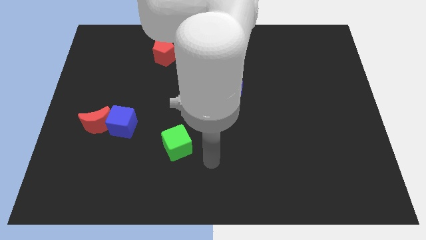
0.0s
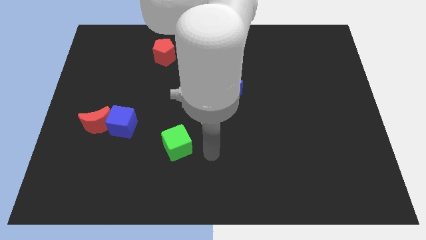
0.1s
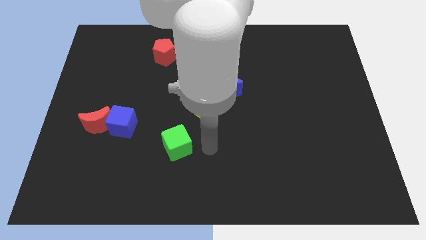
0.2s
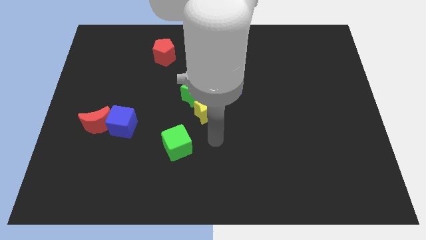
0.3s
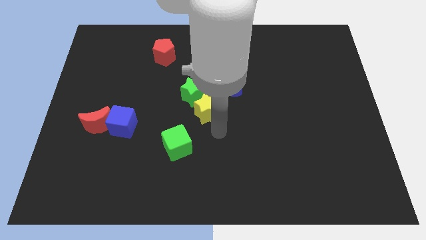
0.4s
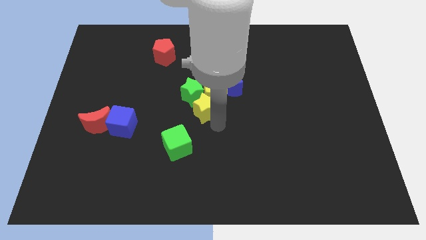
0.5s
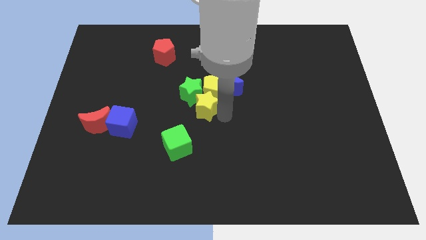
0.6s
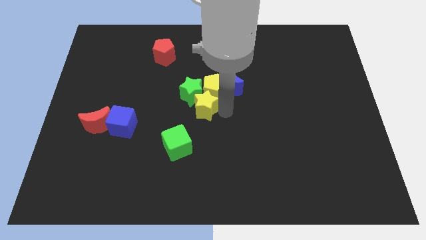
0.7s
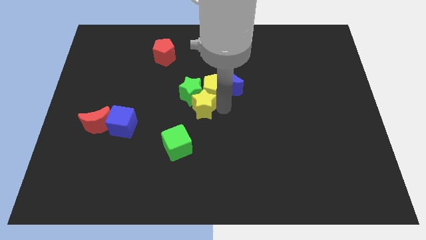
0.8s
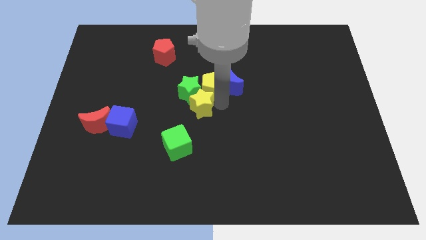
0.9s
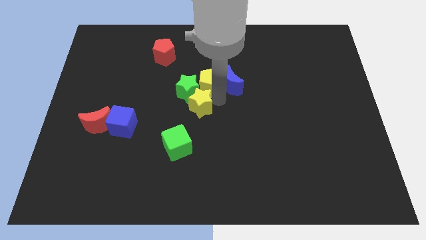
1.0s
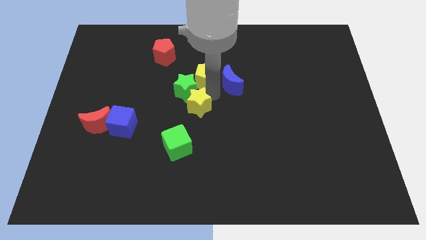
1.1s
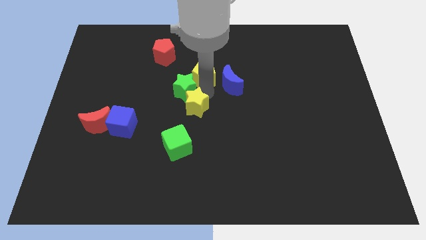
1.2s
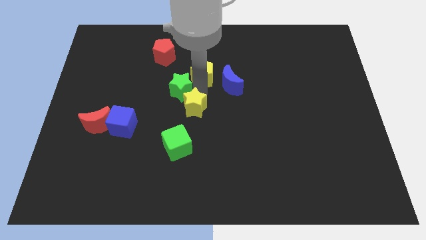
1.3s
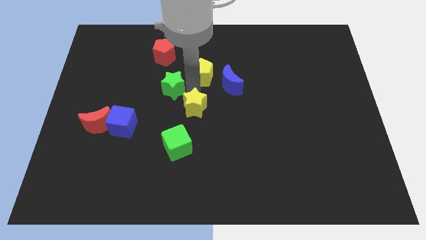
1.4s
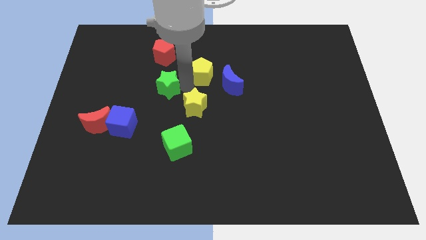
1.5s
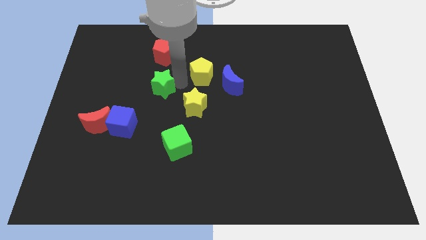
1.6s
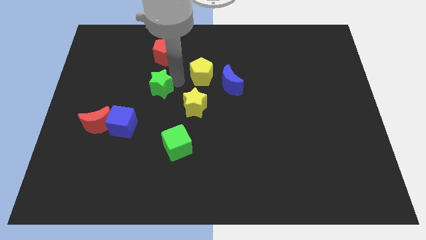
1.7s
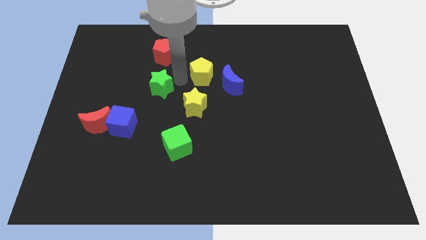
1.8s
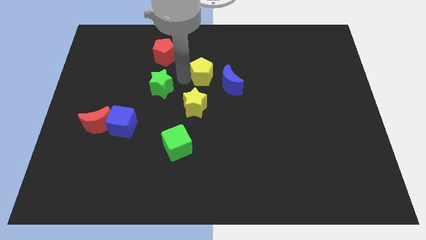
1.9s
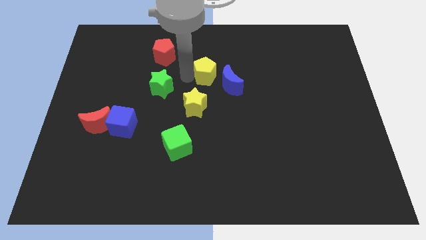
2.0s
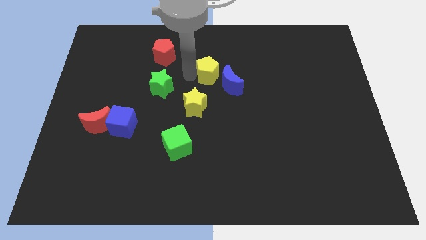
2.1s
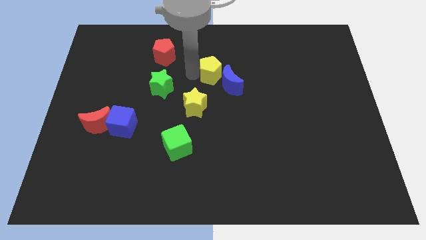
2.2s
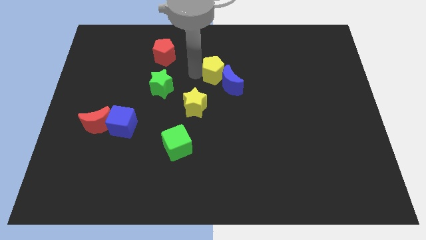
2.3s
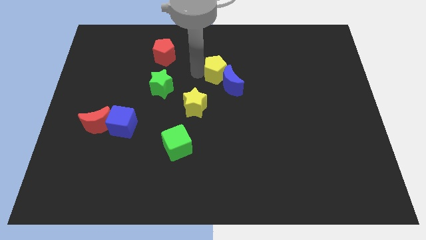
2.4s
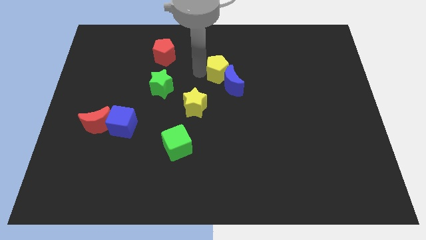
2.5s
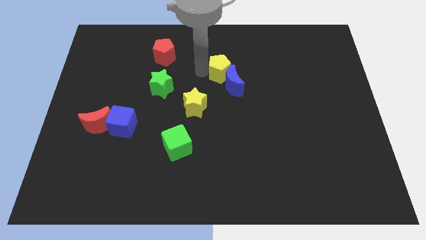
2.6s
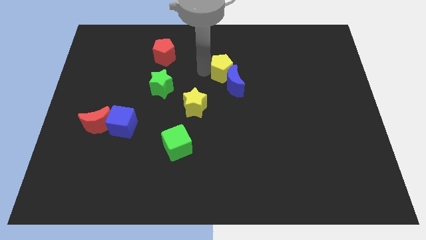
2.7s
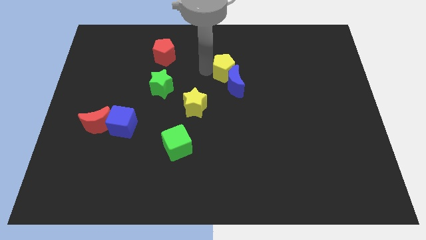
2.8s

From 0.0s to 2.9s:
separate the yellow pentagon from the group of blocks

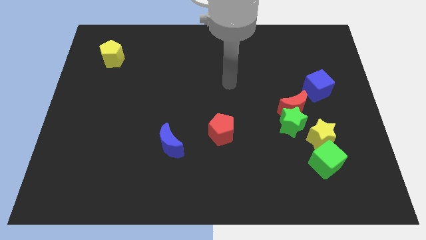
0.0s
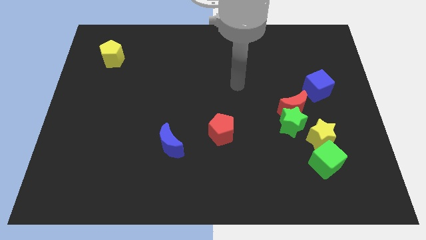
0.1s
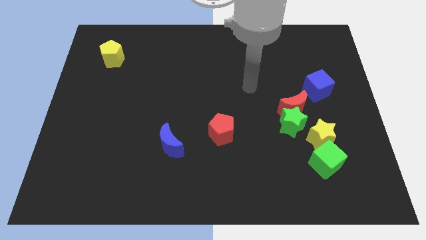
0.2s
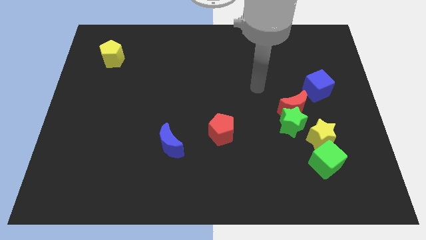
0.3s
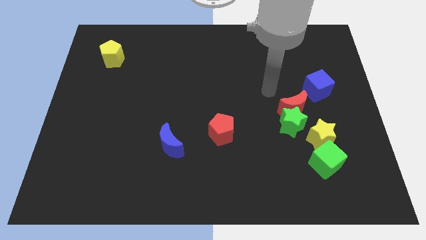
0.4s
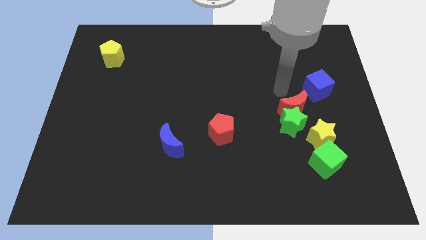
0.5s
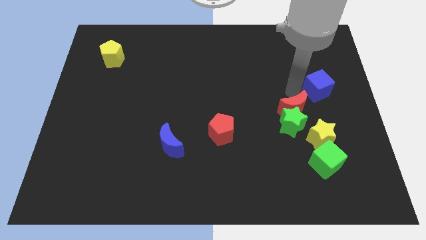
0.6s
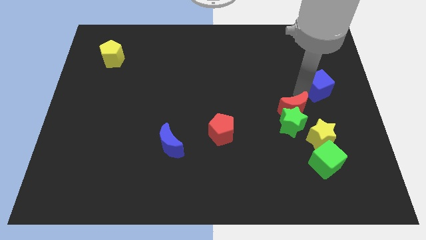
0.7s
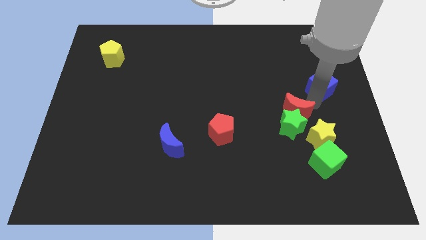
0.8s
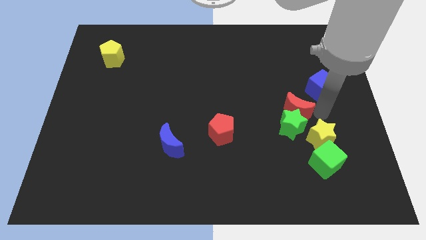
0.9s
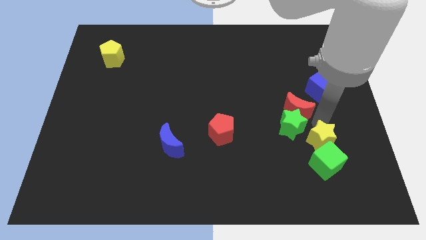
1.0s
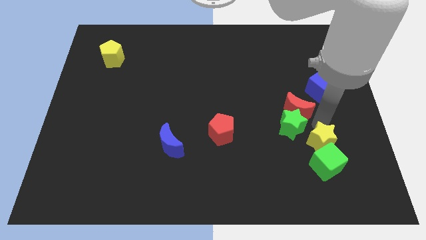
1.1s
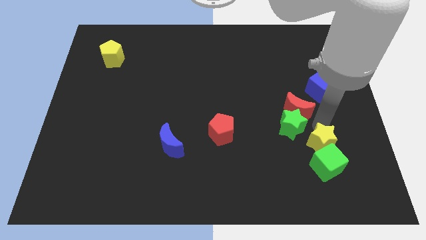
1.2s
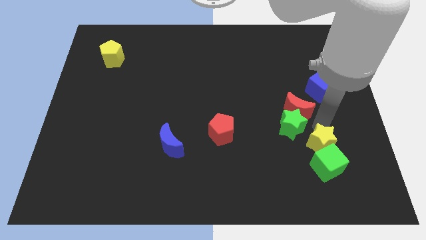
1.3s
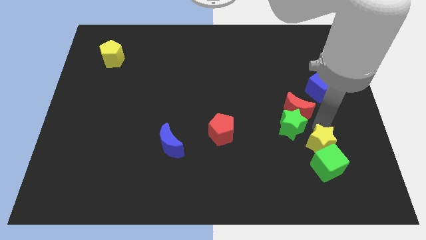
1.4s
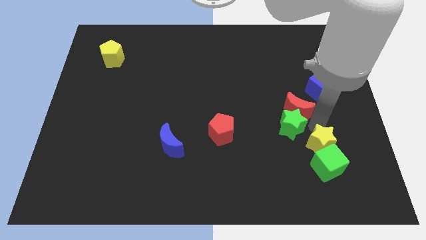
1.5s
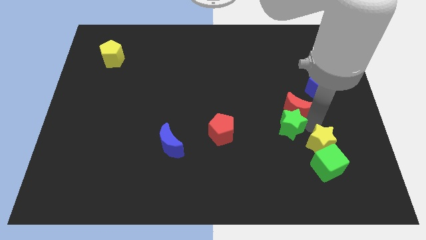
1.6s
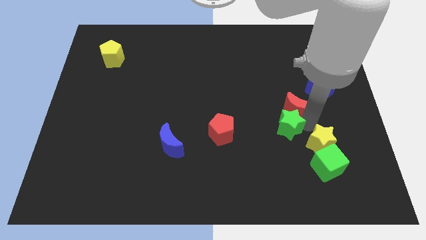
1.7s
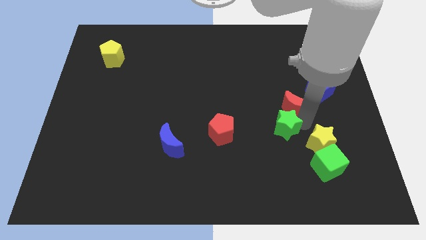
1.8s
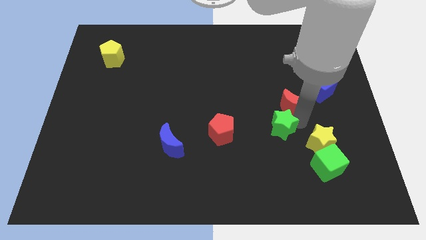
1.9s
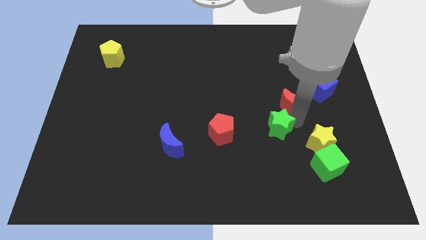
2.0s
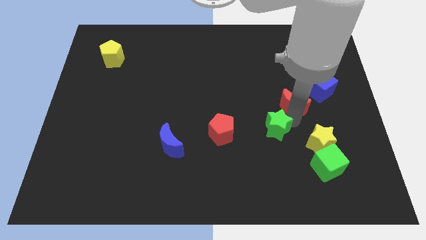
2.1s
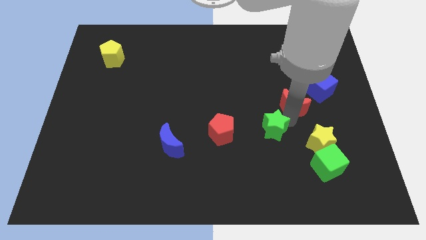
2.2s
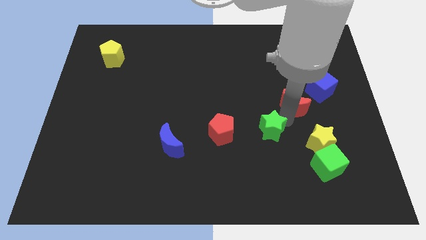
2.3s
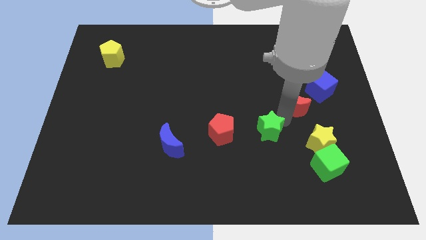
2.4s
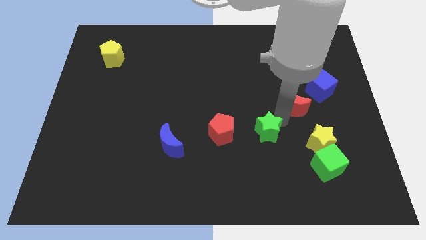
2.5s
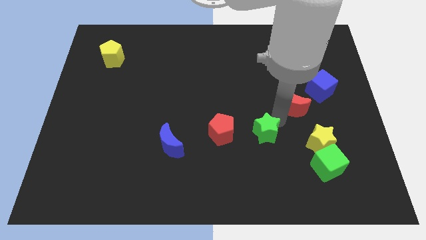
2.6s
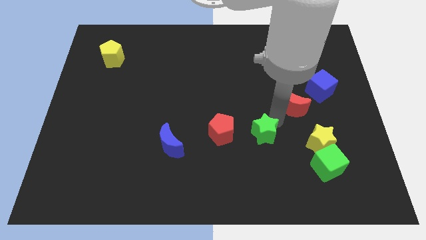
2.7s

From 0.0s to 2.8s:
move the green star away from the red moon and yellow star

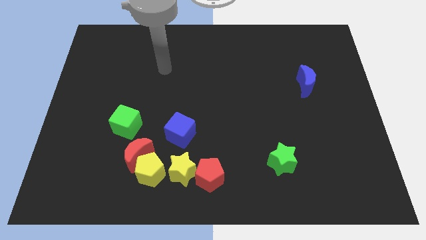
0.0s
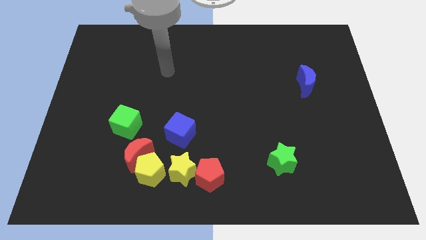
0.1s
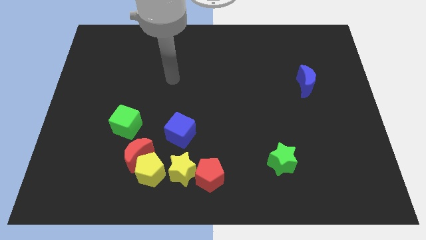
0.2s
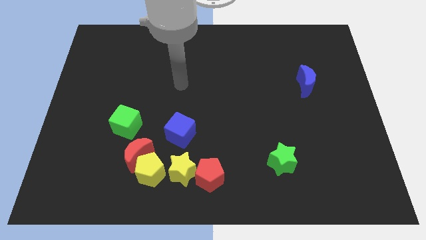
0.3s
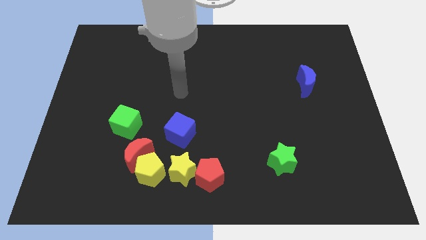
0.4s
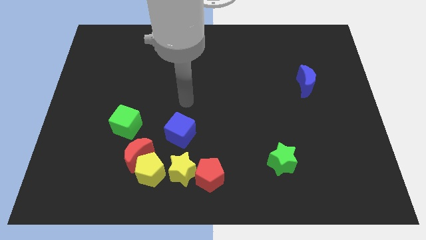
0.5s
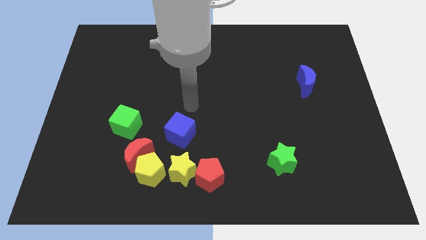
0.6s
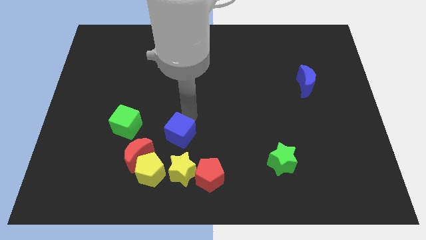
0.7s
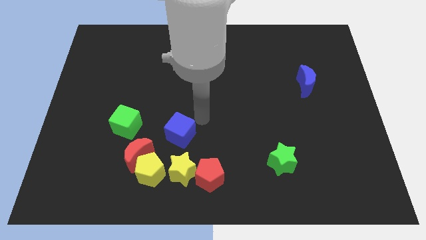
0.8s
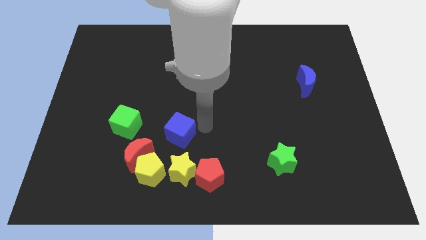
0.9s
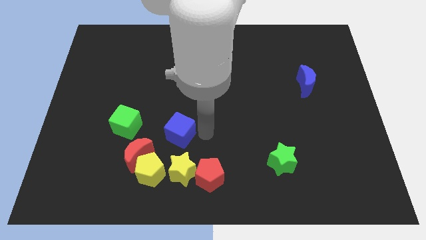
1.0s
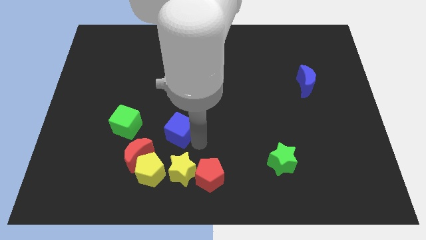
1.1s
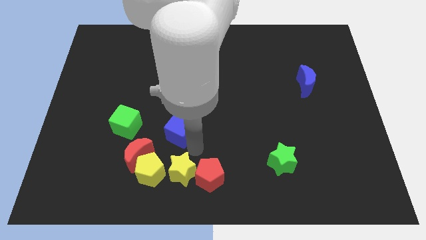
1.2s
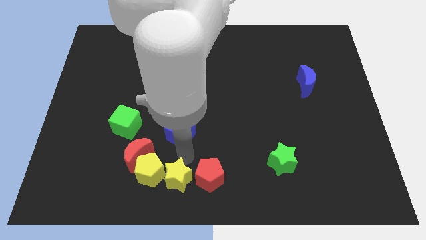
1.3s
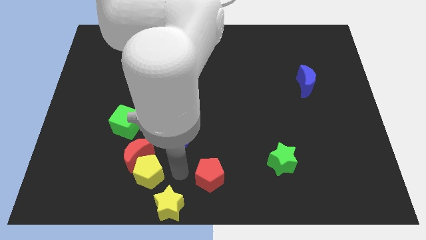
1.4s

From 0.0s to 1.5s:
separate the red pentagon from the yellow star

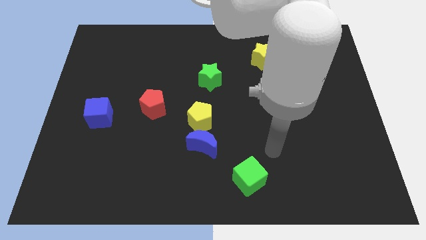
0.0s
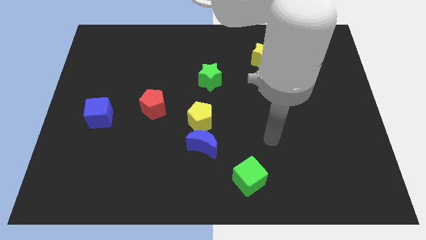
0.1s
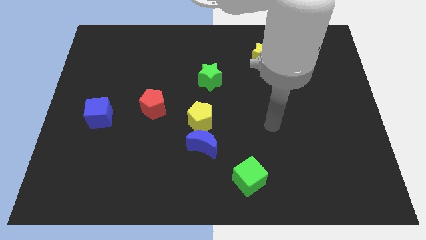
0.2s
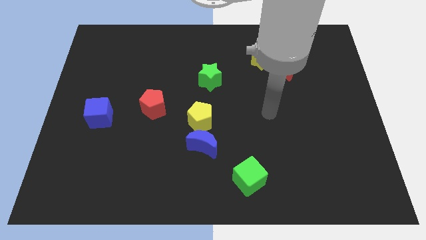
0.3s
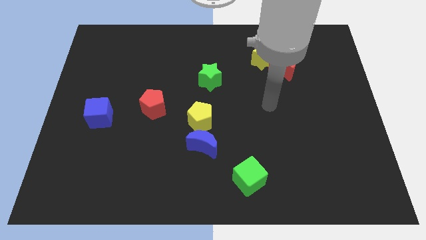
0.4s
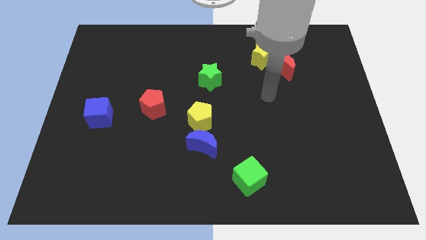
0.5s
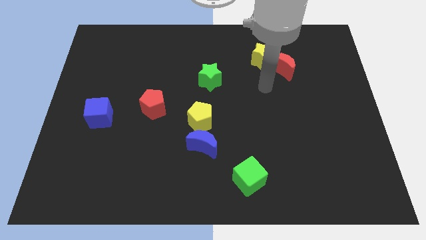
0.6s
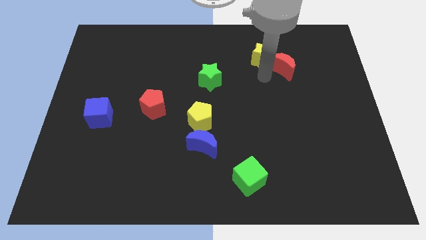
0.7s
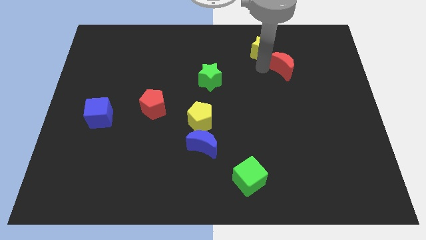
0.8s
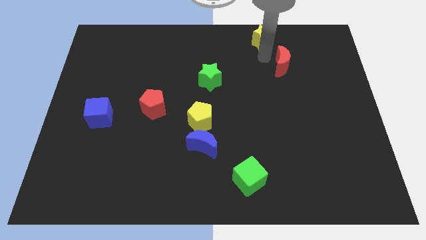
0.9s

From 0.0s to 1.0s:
separate the red moon from the yellow star

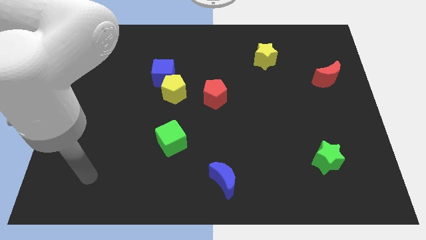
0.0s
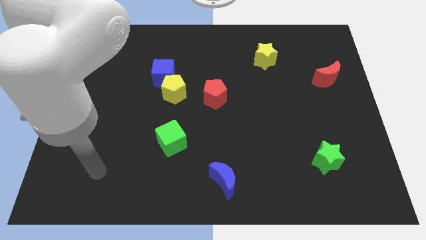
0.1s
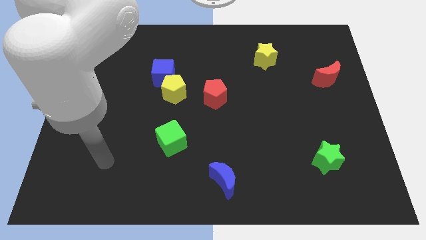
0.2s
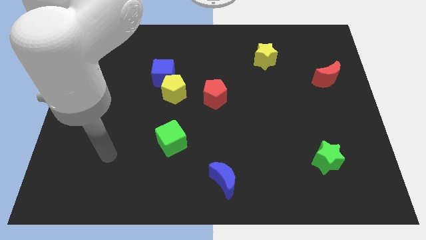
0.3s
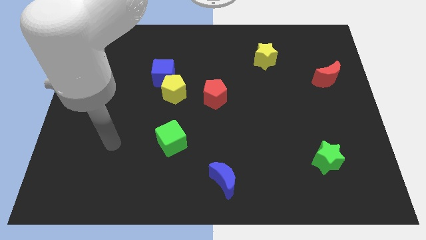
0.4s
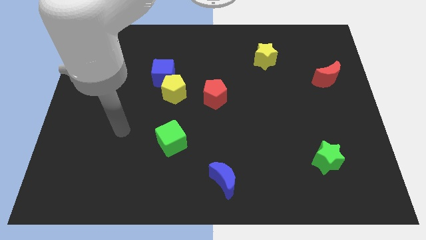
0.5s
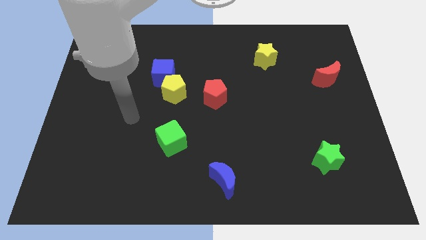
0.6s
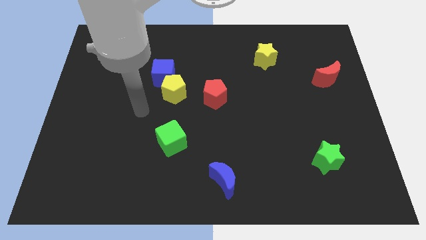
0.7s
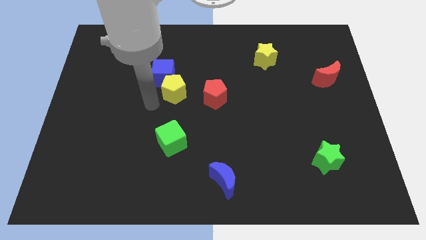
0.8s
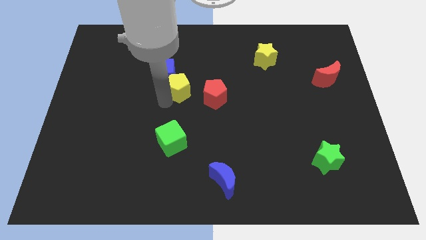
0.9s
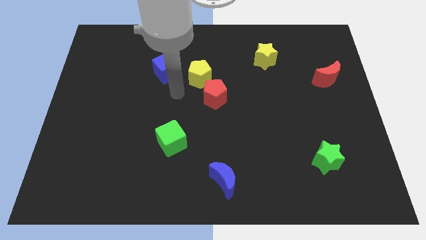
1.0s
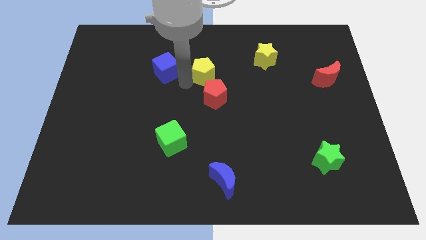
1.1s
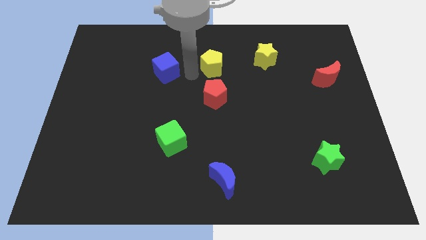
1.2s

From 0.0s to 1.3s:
separate the blue cube from the yellow pentagon
